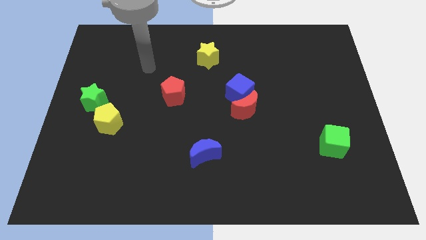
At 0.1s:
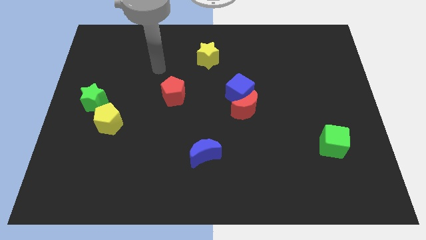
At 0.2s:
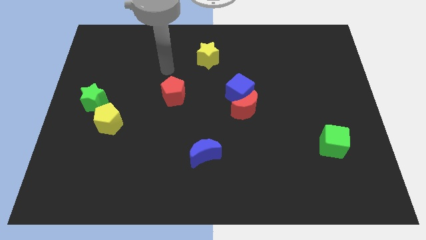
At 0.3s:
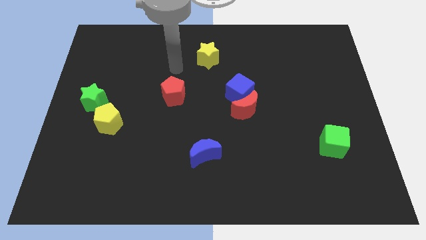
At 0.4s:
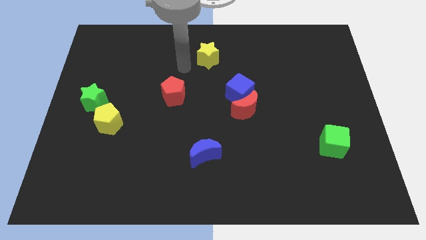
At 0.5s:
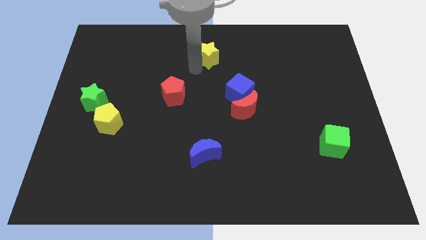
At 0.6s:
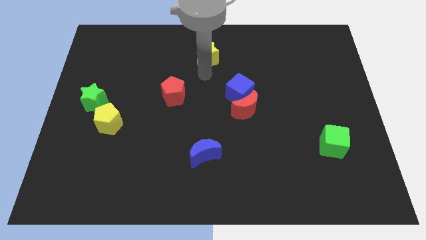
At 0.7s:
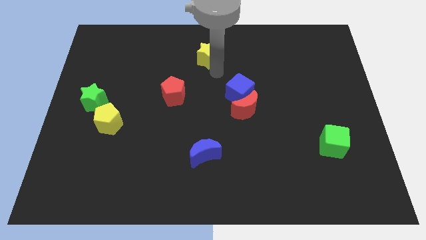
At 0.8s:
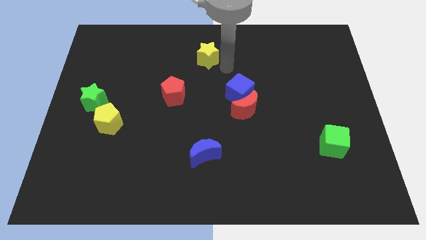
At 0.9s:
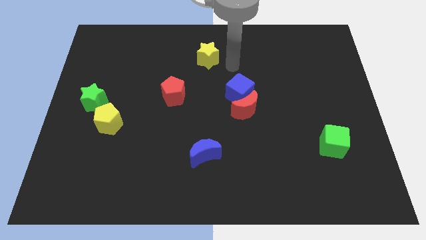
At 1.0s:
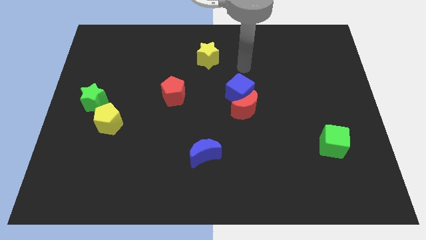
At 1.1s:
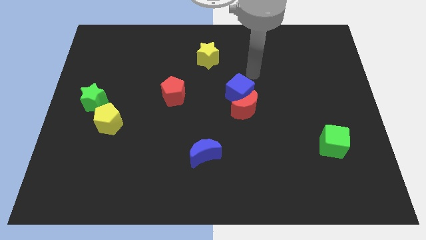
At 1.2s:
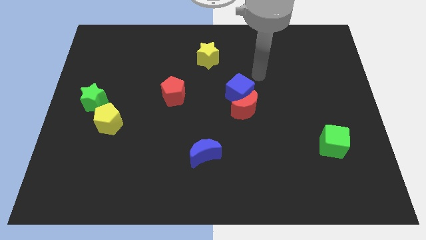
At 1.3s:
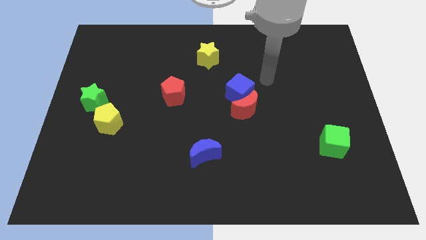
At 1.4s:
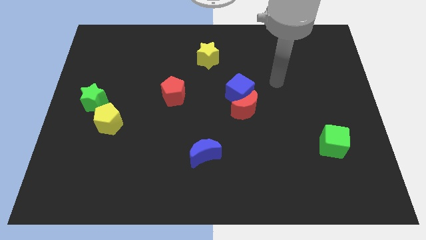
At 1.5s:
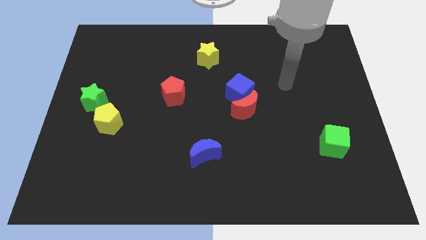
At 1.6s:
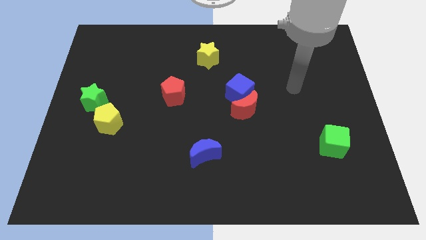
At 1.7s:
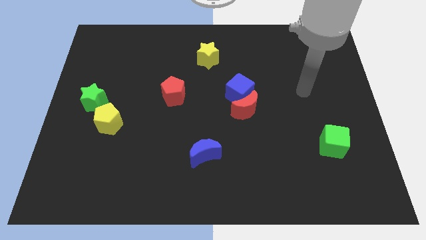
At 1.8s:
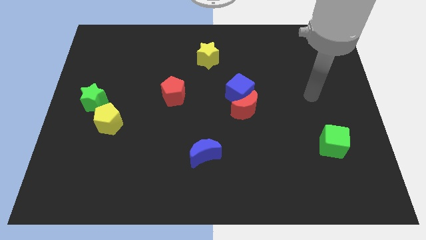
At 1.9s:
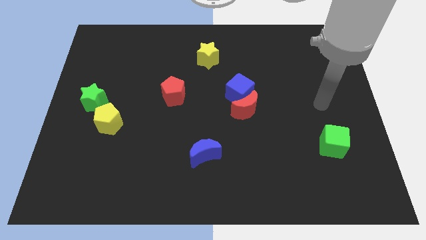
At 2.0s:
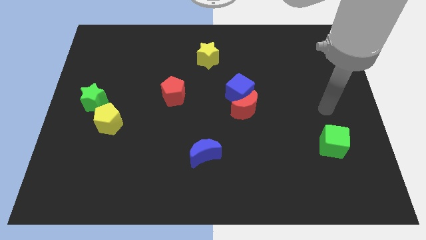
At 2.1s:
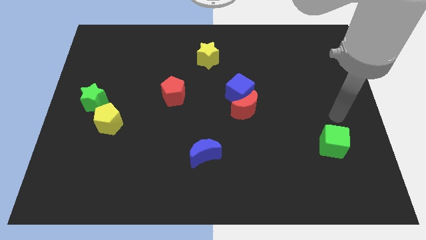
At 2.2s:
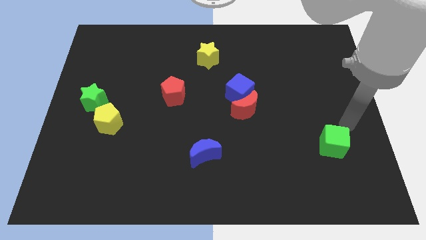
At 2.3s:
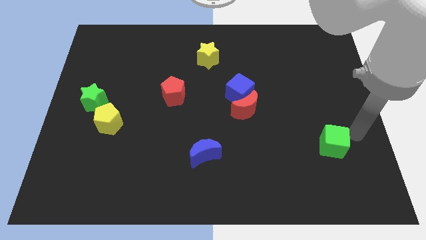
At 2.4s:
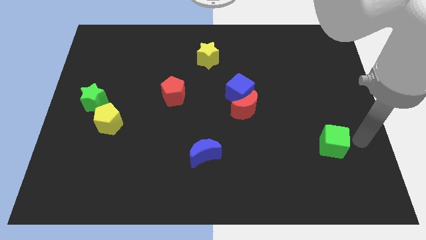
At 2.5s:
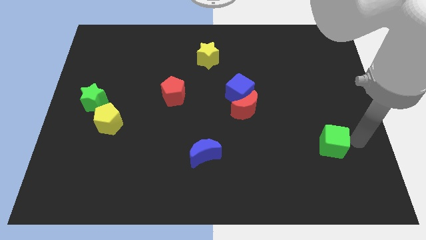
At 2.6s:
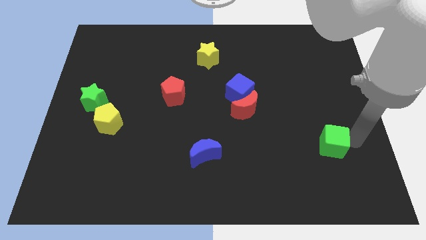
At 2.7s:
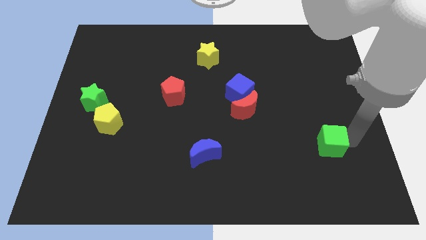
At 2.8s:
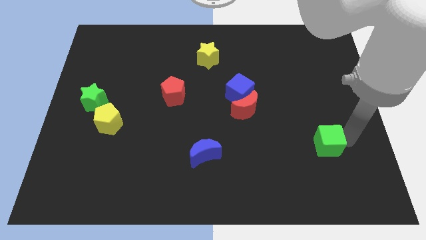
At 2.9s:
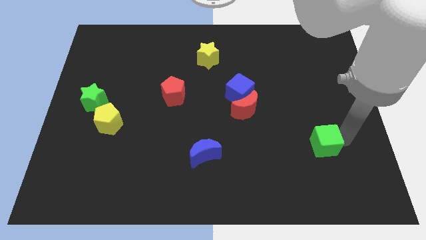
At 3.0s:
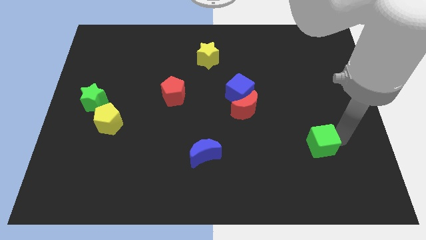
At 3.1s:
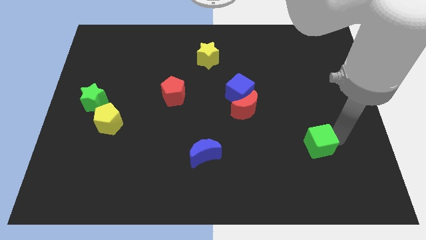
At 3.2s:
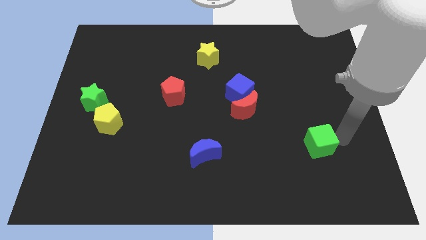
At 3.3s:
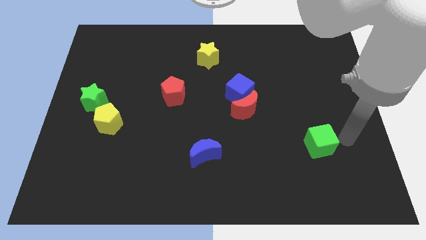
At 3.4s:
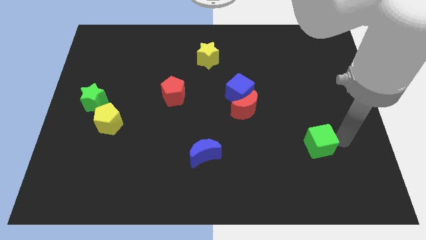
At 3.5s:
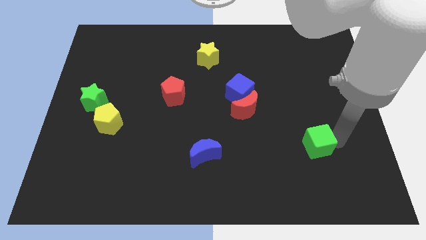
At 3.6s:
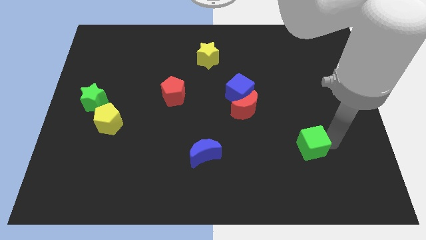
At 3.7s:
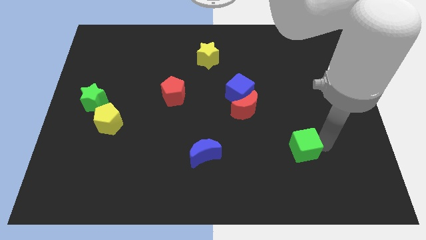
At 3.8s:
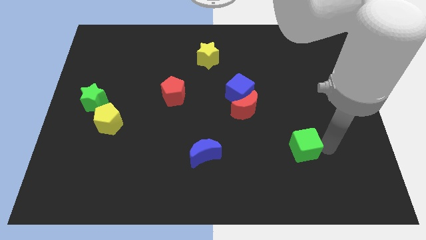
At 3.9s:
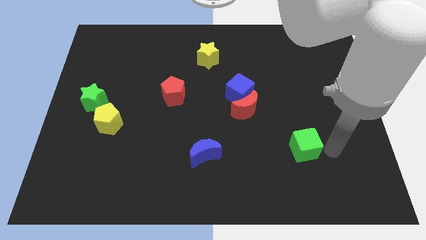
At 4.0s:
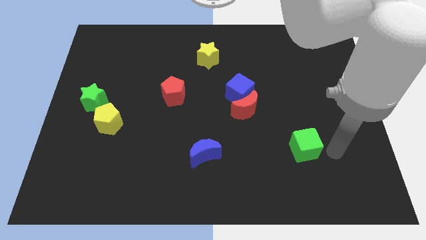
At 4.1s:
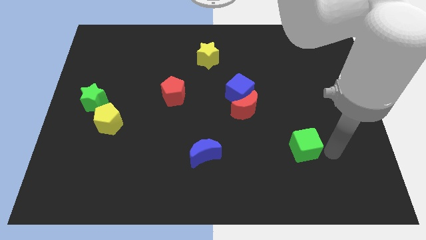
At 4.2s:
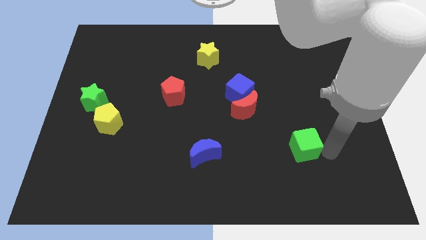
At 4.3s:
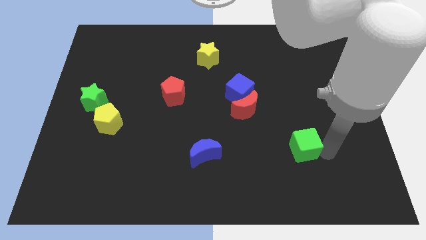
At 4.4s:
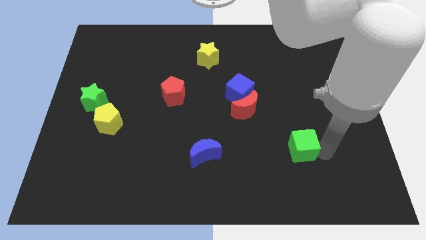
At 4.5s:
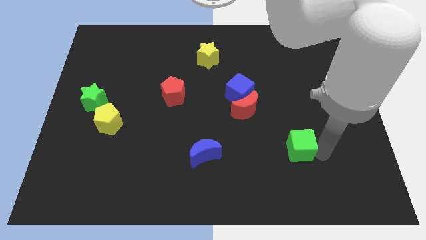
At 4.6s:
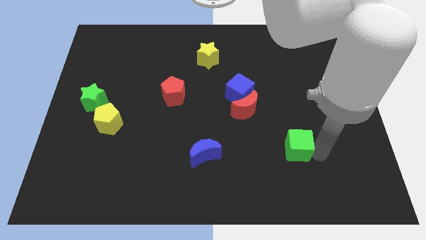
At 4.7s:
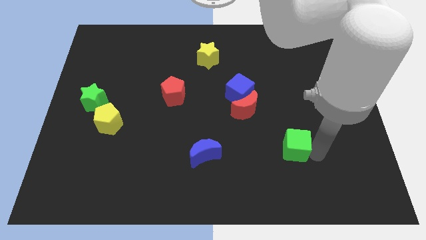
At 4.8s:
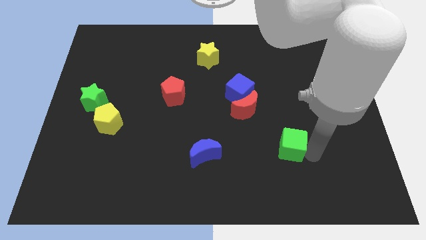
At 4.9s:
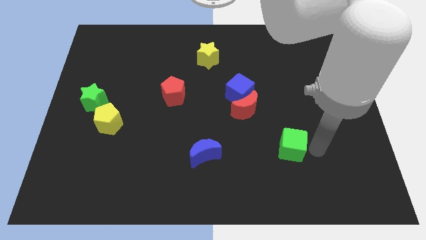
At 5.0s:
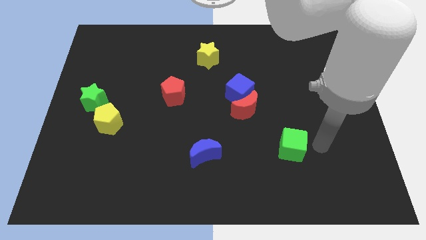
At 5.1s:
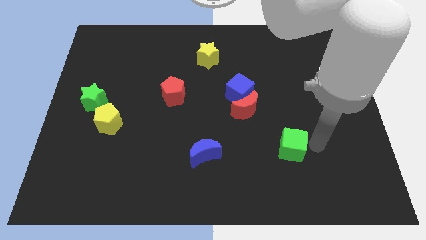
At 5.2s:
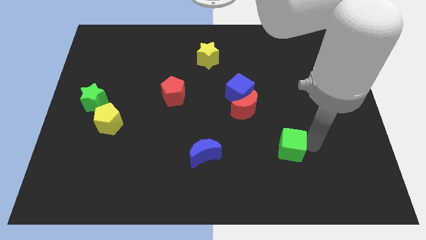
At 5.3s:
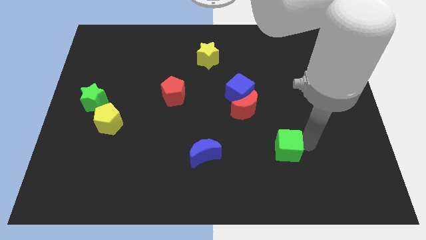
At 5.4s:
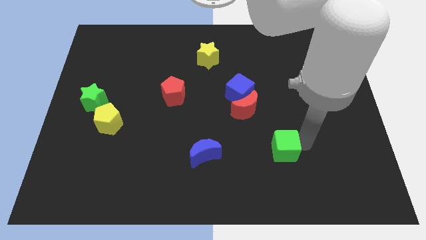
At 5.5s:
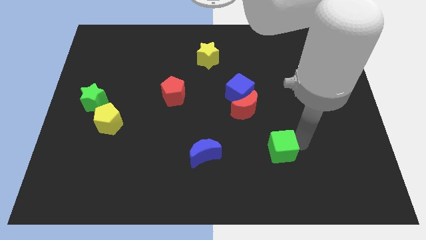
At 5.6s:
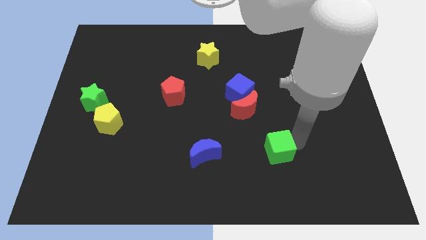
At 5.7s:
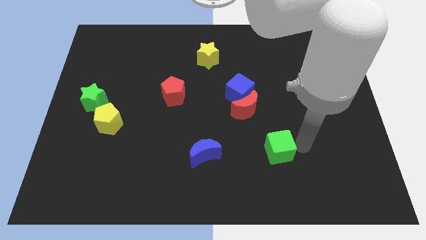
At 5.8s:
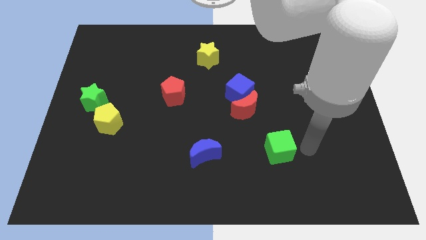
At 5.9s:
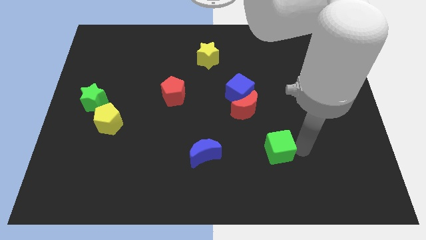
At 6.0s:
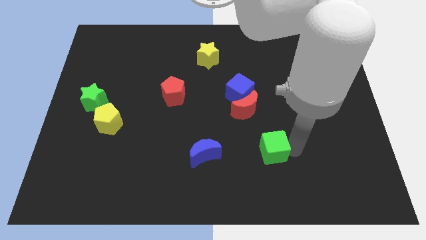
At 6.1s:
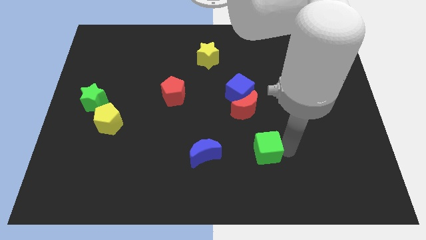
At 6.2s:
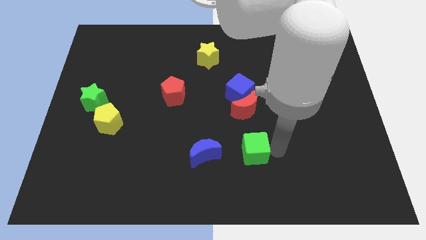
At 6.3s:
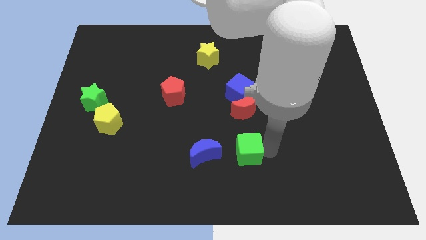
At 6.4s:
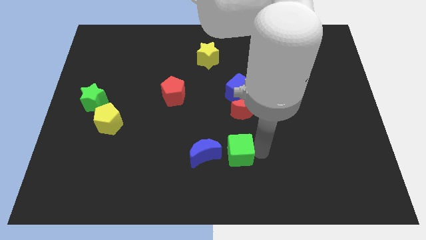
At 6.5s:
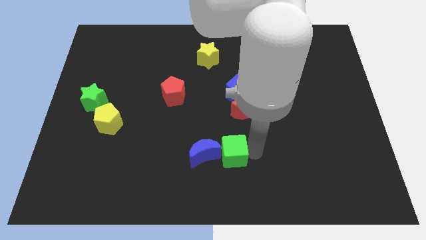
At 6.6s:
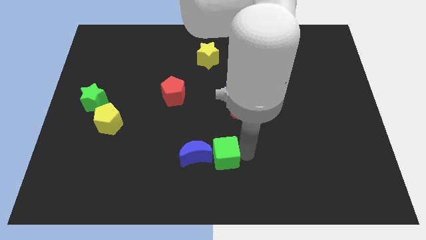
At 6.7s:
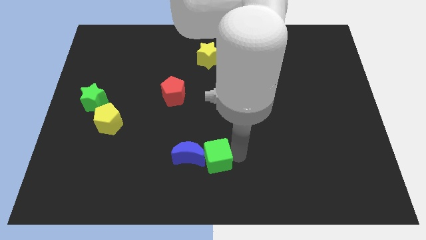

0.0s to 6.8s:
put the green cube next to the blue moon
